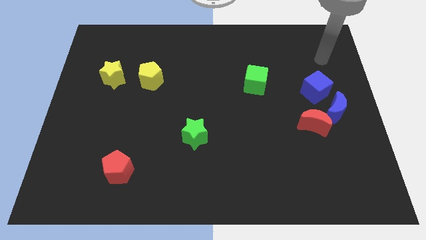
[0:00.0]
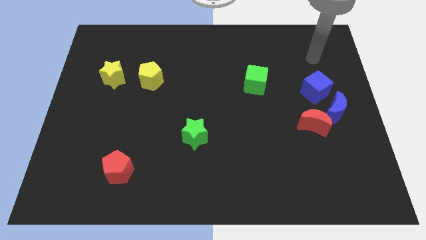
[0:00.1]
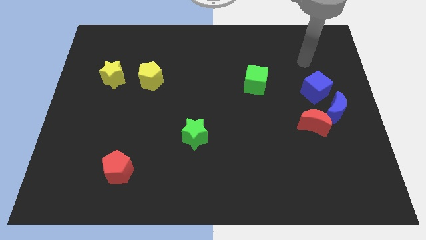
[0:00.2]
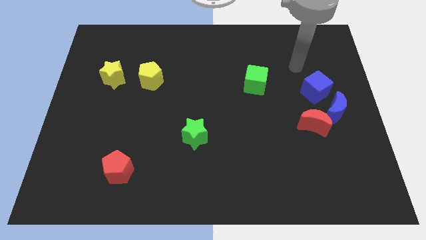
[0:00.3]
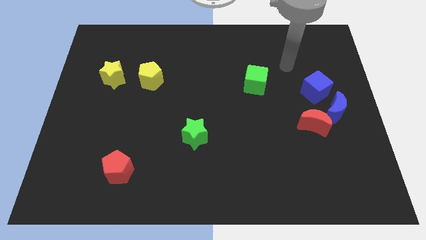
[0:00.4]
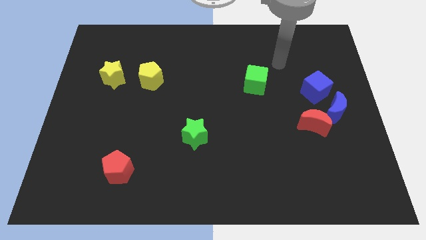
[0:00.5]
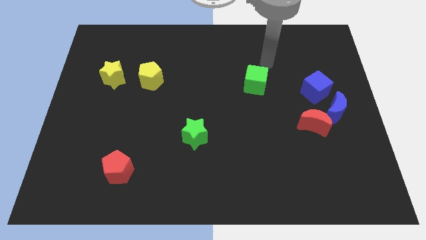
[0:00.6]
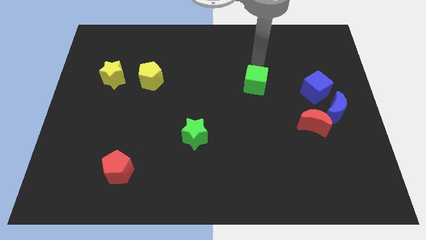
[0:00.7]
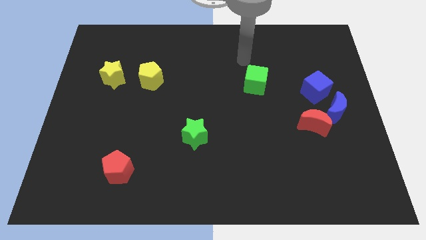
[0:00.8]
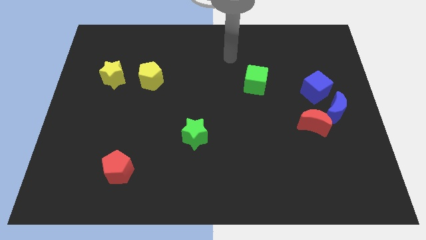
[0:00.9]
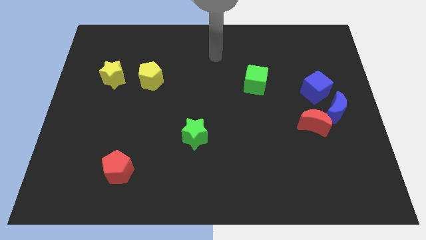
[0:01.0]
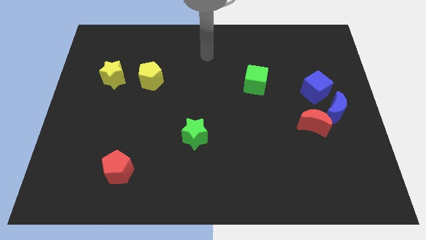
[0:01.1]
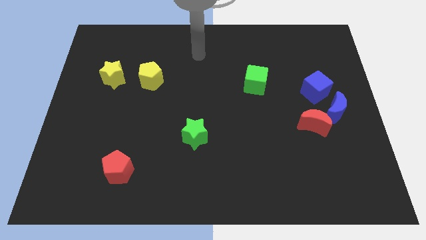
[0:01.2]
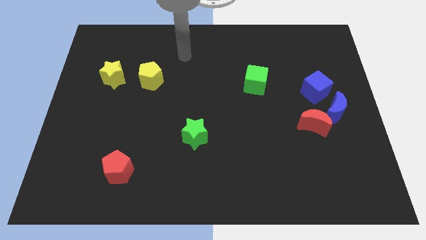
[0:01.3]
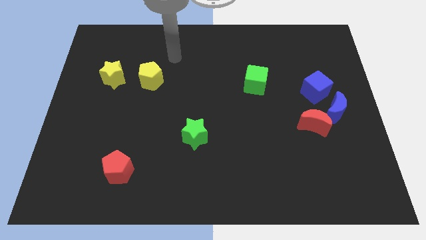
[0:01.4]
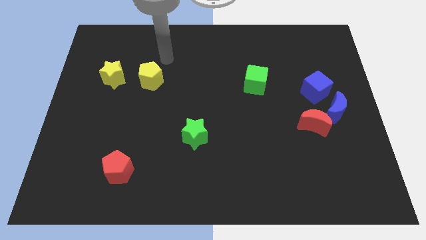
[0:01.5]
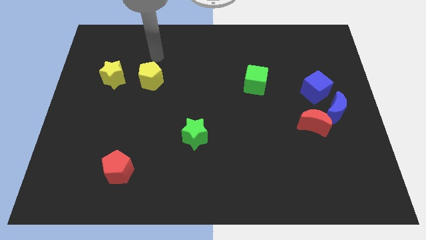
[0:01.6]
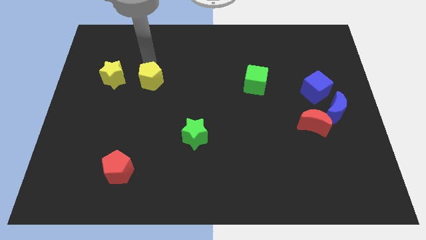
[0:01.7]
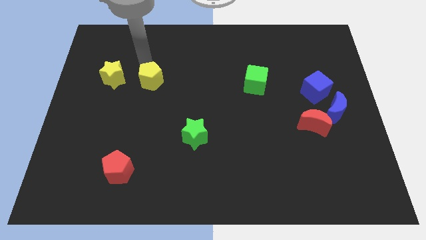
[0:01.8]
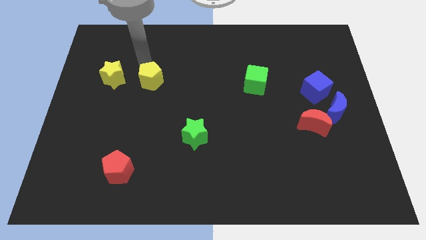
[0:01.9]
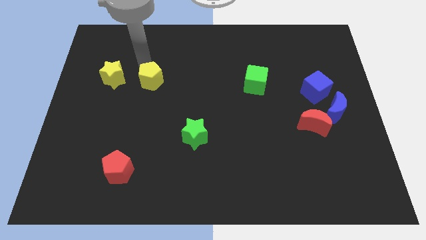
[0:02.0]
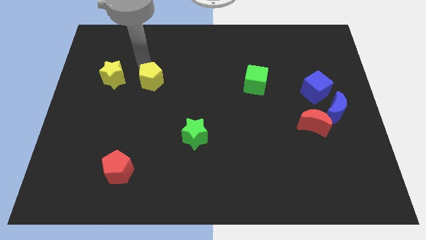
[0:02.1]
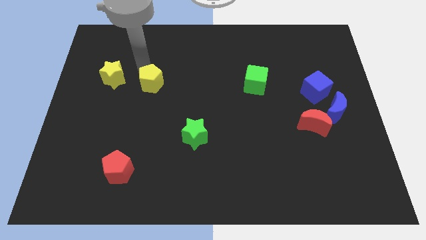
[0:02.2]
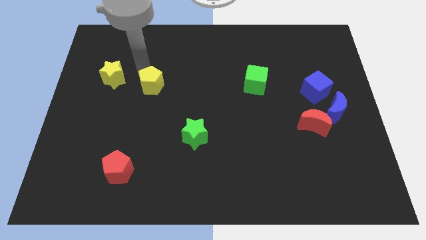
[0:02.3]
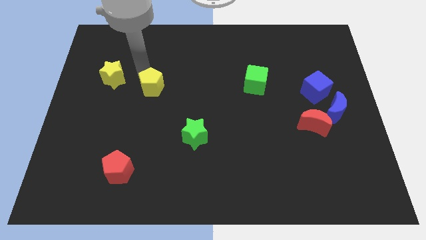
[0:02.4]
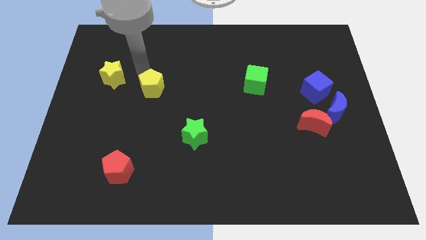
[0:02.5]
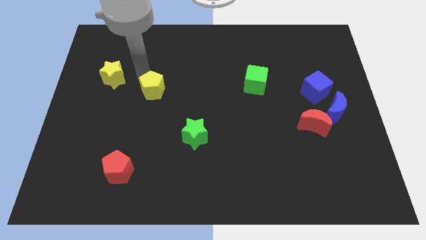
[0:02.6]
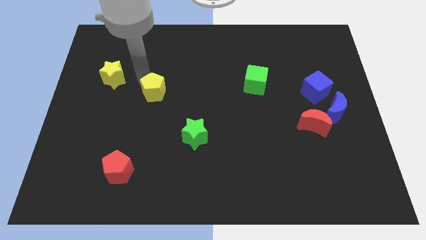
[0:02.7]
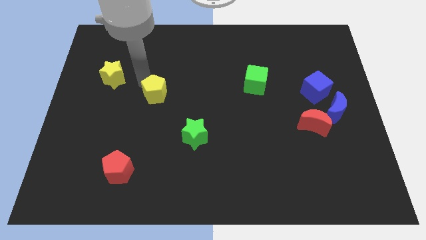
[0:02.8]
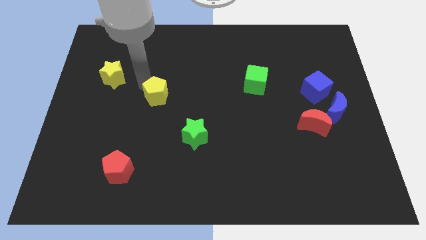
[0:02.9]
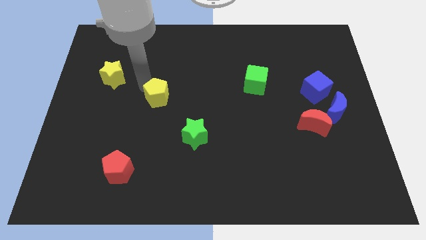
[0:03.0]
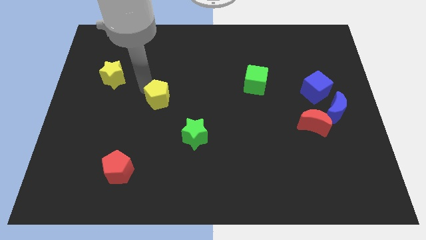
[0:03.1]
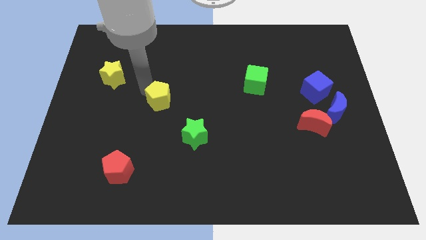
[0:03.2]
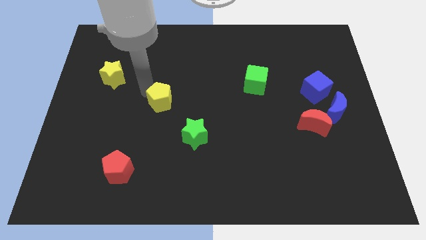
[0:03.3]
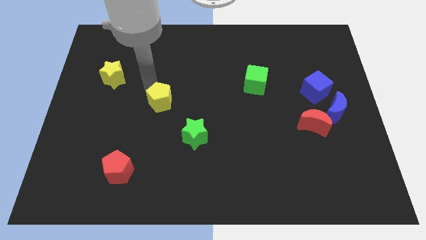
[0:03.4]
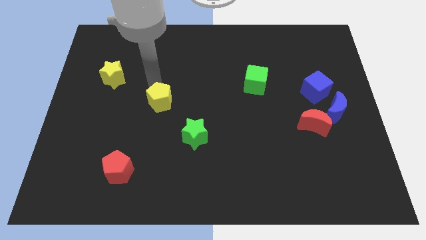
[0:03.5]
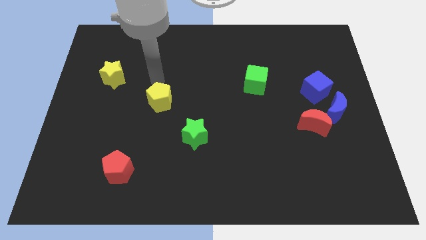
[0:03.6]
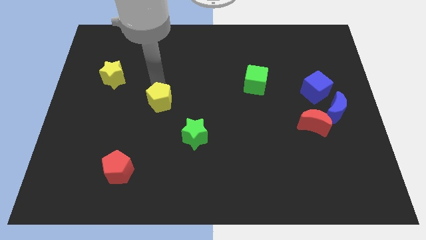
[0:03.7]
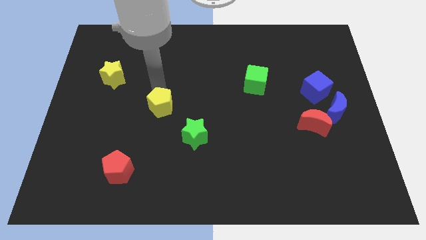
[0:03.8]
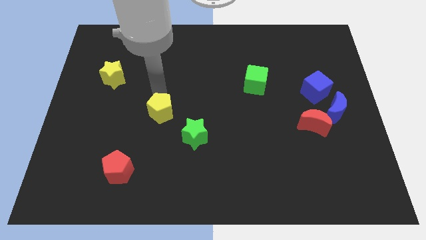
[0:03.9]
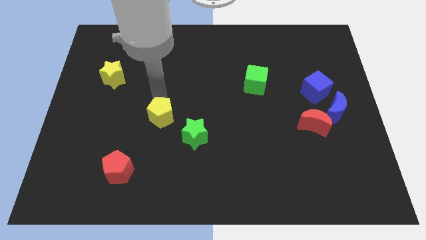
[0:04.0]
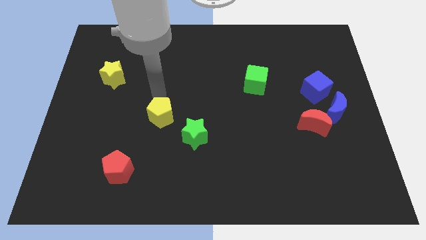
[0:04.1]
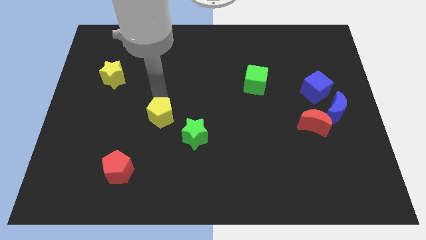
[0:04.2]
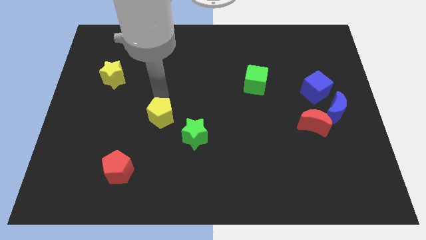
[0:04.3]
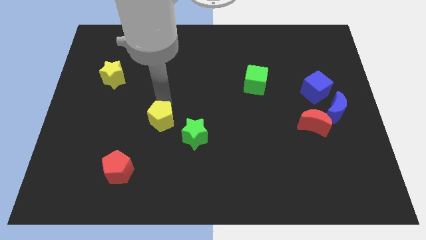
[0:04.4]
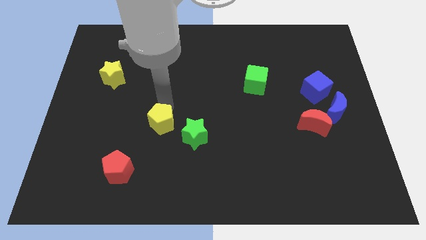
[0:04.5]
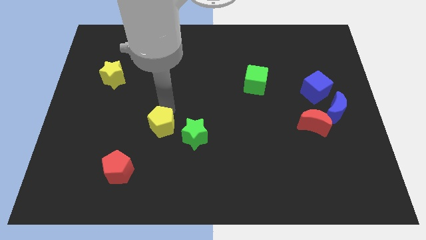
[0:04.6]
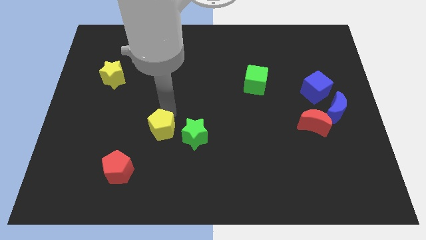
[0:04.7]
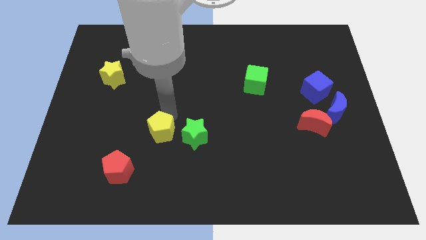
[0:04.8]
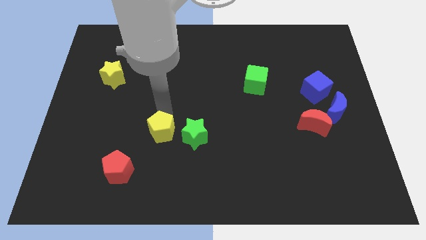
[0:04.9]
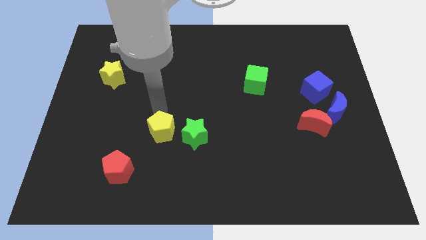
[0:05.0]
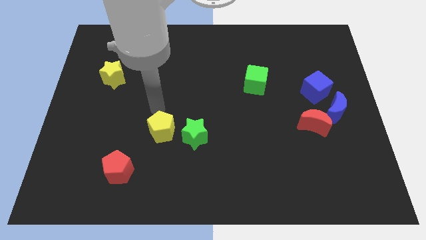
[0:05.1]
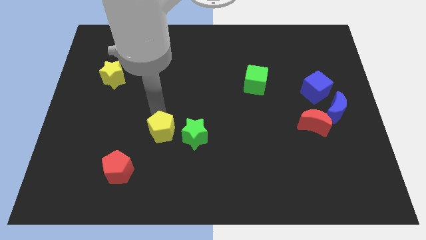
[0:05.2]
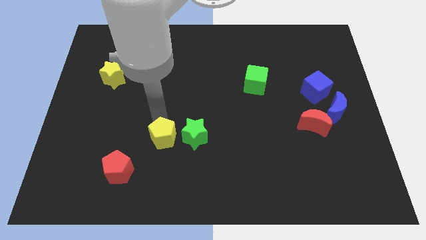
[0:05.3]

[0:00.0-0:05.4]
move the yellow pentagon to the bottom left side of the green star

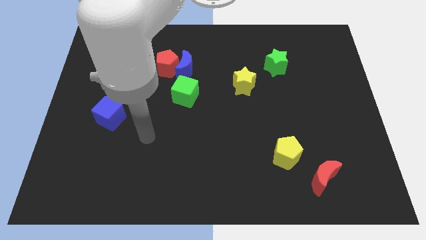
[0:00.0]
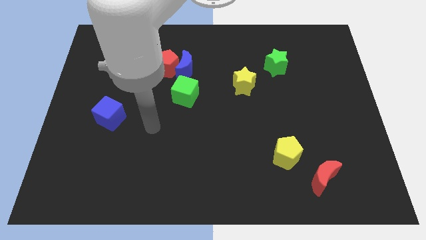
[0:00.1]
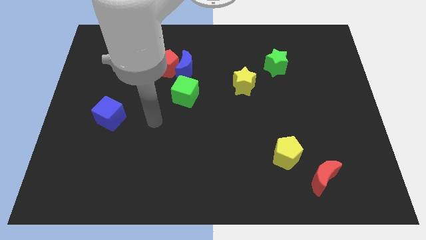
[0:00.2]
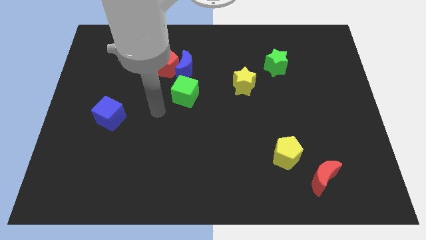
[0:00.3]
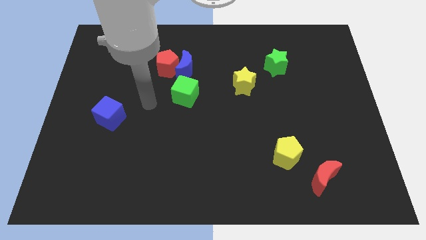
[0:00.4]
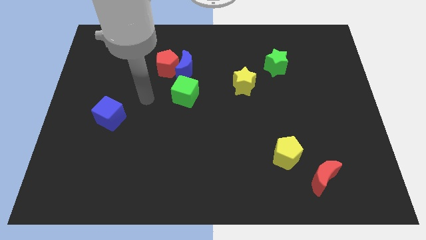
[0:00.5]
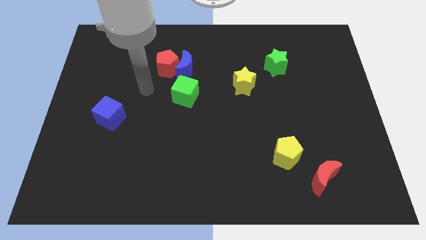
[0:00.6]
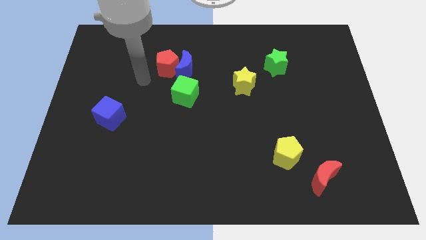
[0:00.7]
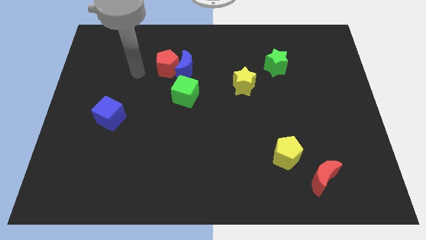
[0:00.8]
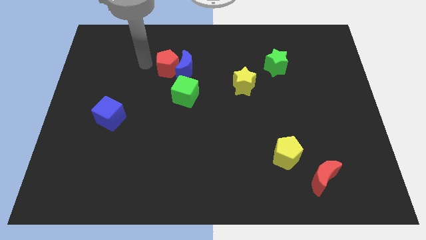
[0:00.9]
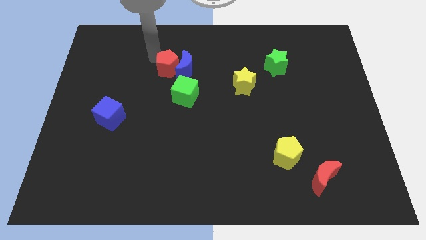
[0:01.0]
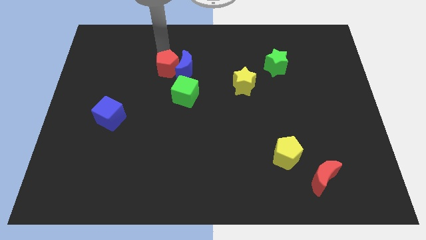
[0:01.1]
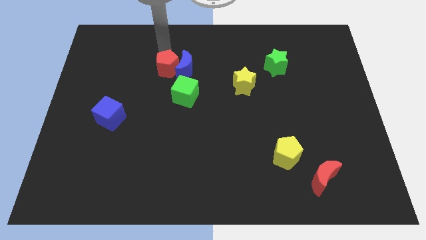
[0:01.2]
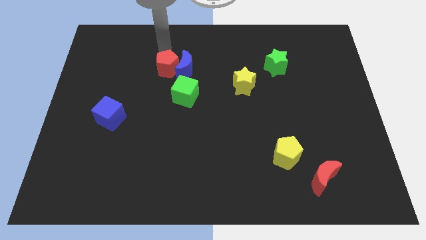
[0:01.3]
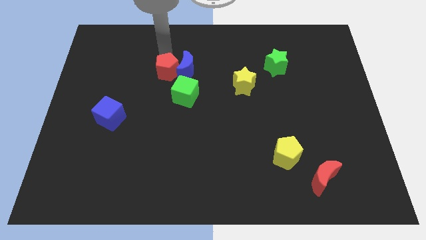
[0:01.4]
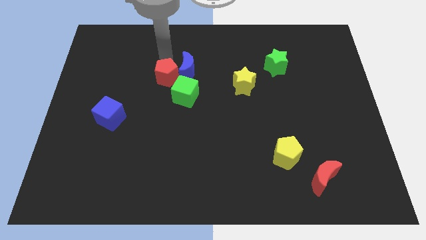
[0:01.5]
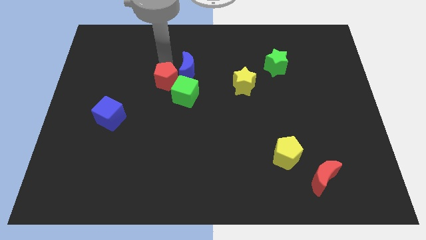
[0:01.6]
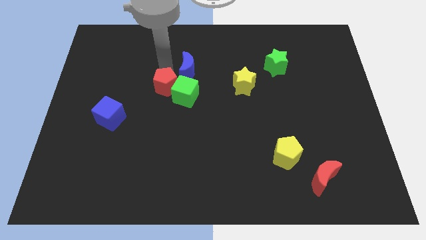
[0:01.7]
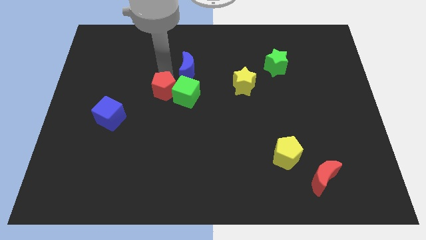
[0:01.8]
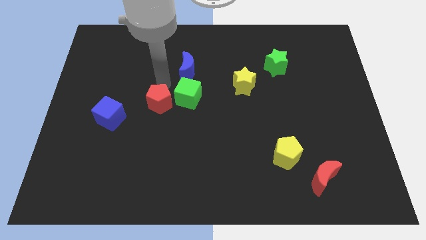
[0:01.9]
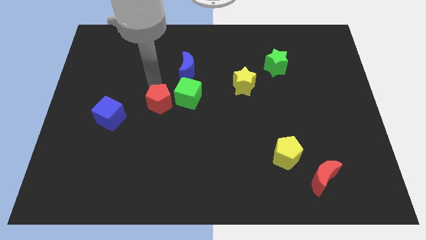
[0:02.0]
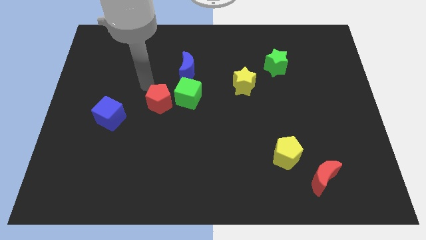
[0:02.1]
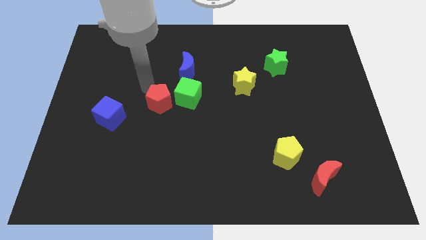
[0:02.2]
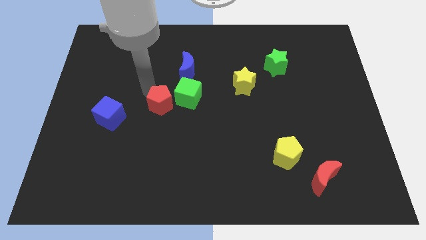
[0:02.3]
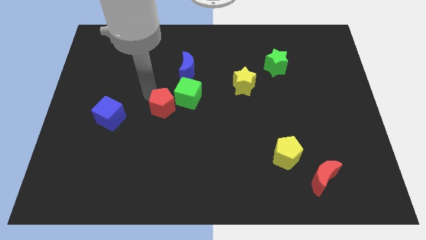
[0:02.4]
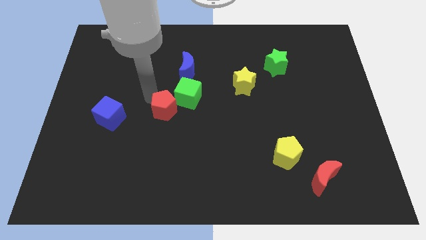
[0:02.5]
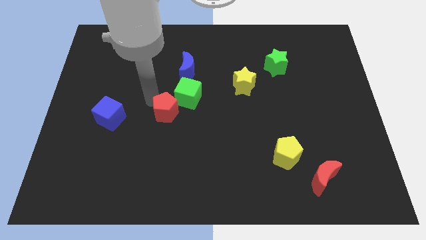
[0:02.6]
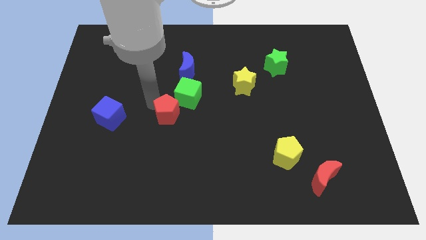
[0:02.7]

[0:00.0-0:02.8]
move the red pentagon to the bottom side of the green cube
